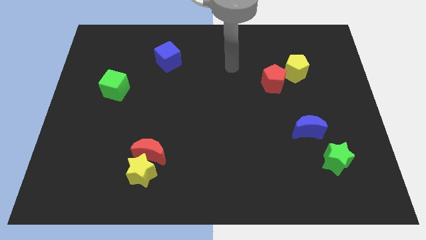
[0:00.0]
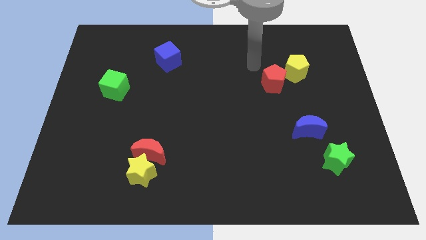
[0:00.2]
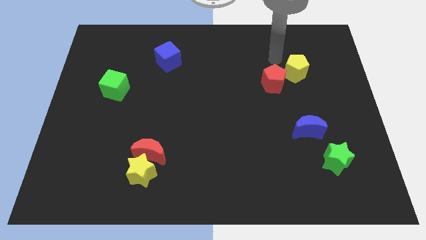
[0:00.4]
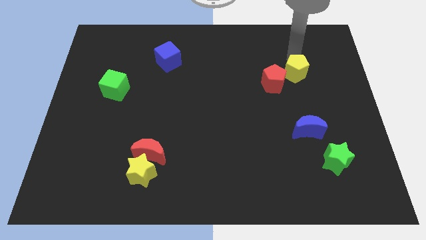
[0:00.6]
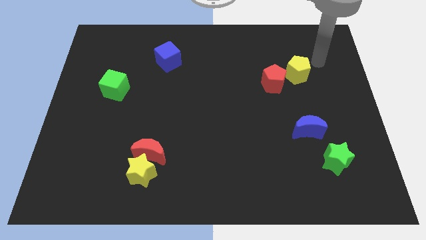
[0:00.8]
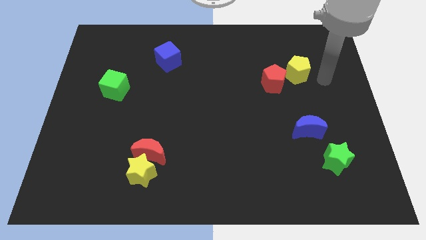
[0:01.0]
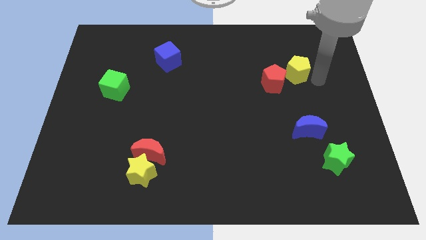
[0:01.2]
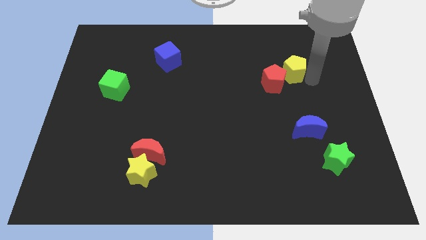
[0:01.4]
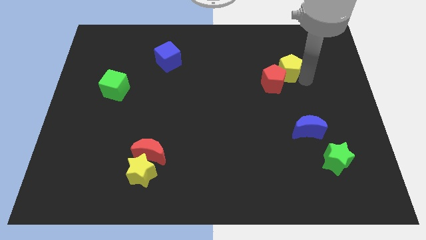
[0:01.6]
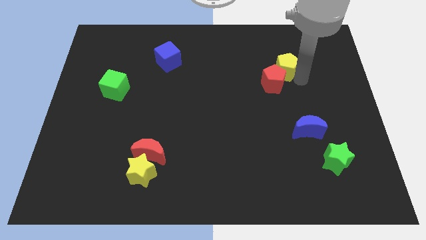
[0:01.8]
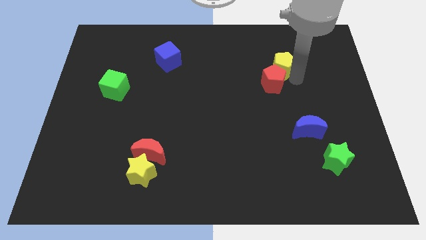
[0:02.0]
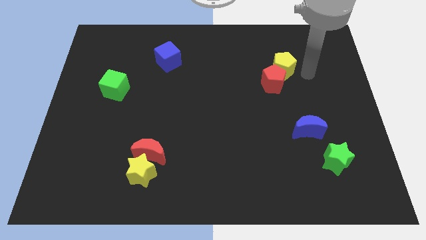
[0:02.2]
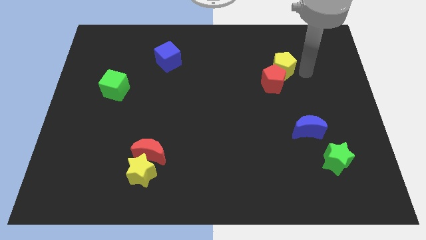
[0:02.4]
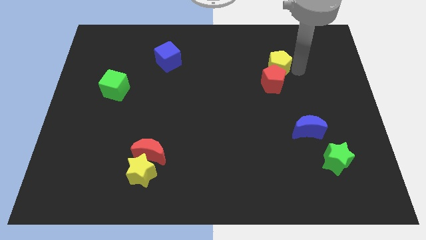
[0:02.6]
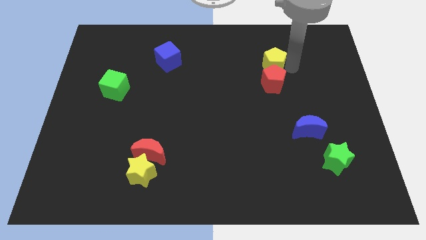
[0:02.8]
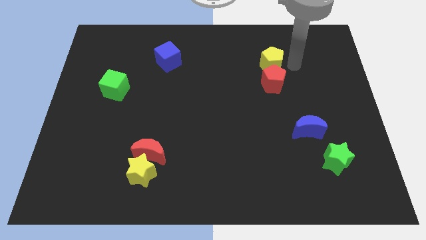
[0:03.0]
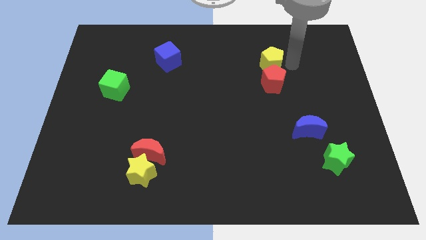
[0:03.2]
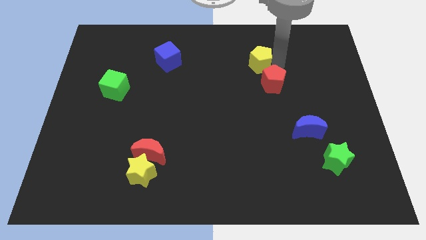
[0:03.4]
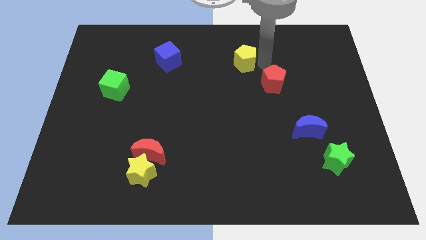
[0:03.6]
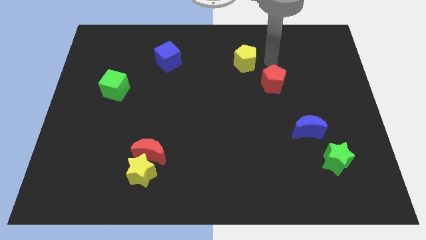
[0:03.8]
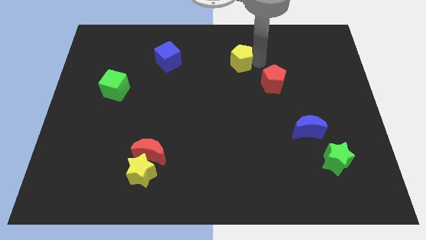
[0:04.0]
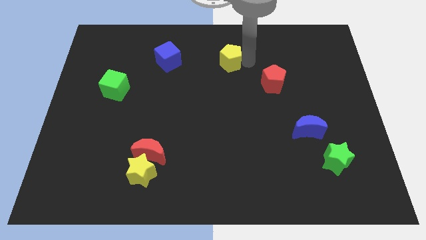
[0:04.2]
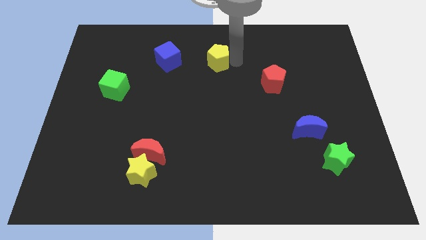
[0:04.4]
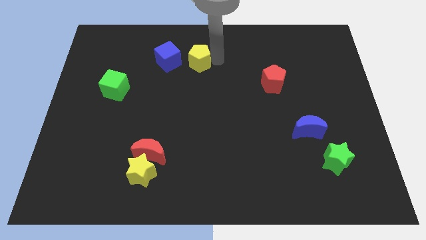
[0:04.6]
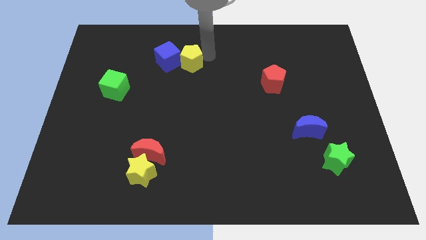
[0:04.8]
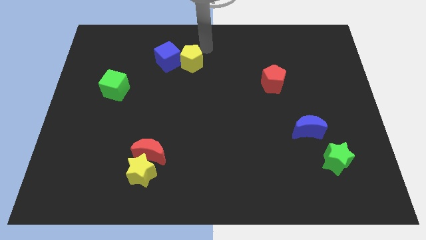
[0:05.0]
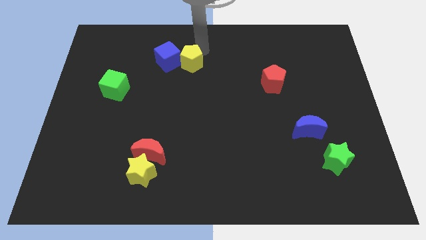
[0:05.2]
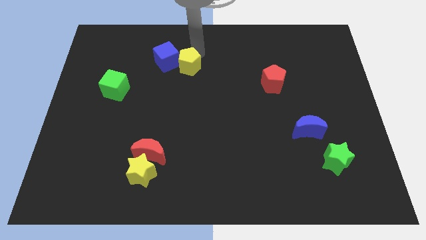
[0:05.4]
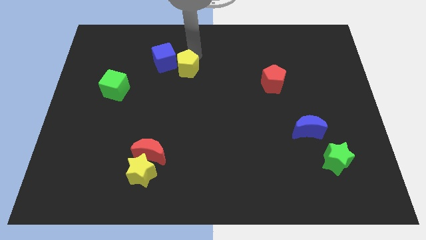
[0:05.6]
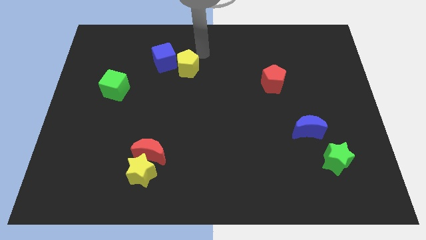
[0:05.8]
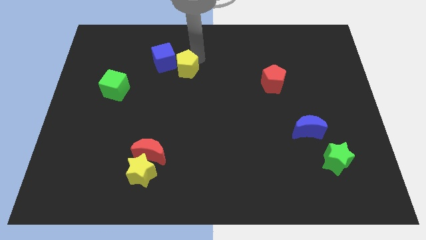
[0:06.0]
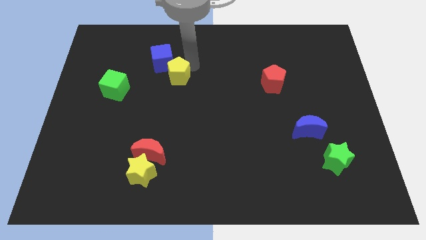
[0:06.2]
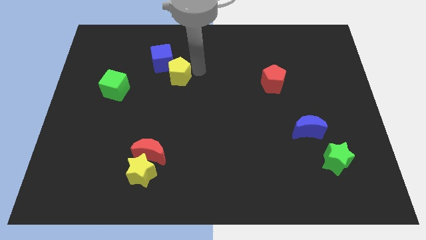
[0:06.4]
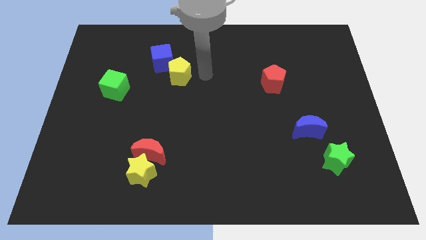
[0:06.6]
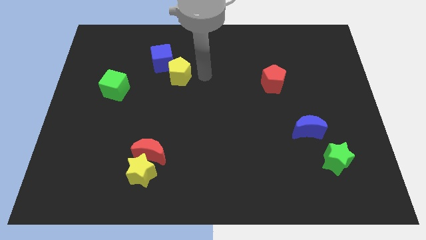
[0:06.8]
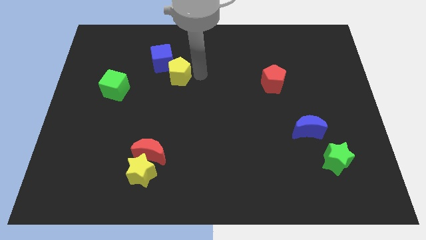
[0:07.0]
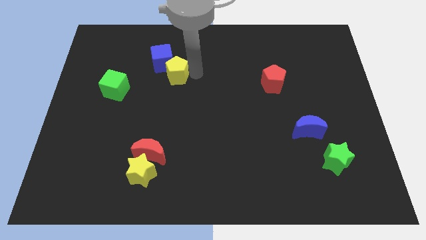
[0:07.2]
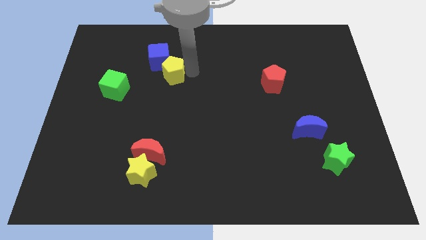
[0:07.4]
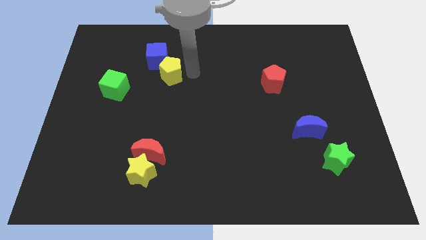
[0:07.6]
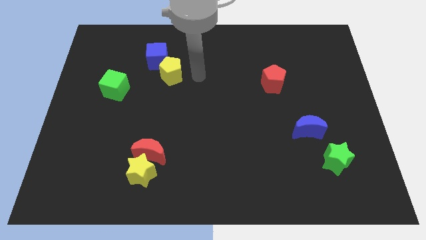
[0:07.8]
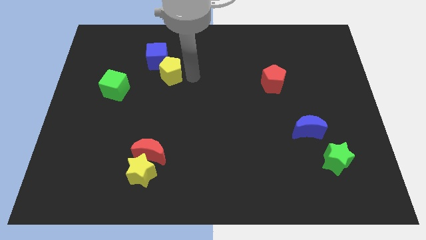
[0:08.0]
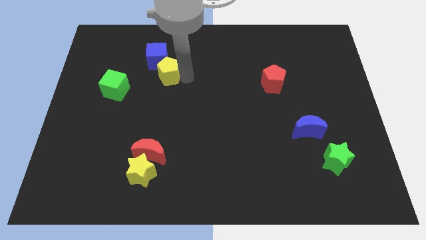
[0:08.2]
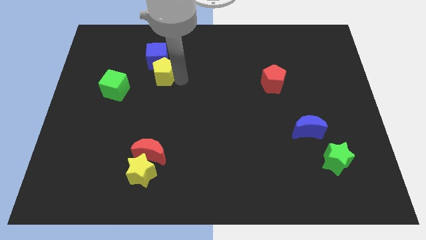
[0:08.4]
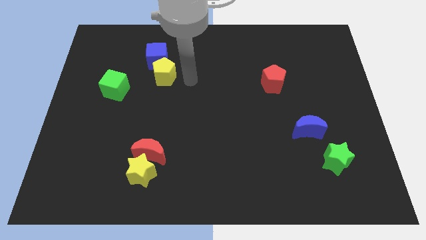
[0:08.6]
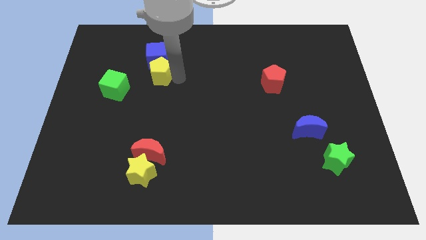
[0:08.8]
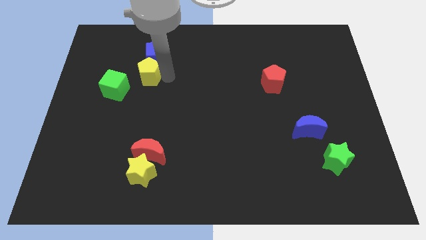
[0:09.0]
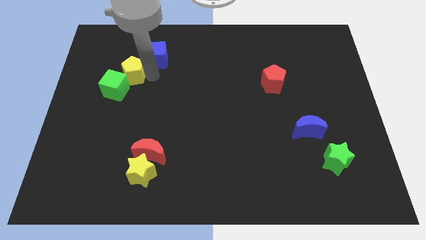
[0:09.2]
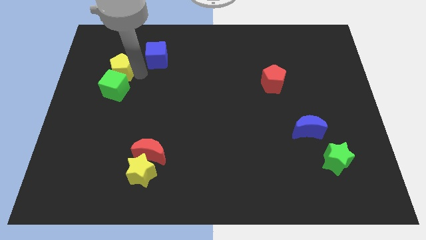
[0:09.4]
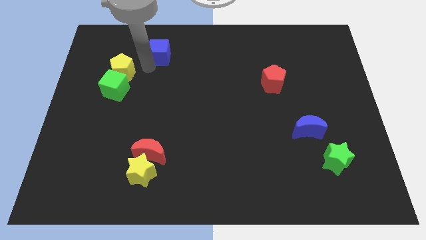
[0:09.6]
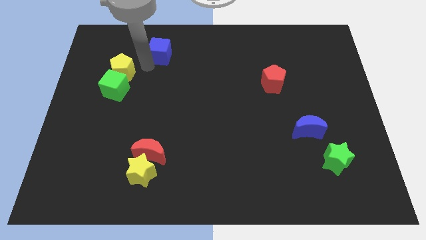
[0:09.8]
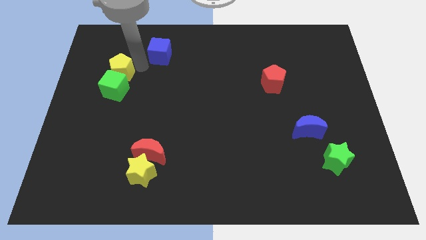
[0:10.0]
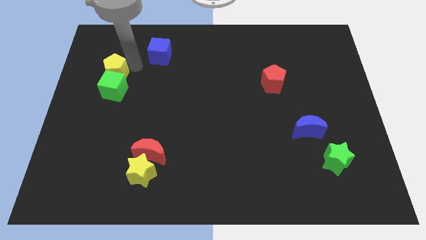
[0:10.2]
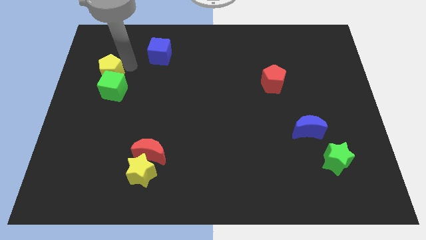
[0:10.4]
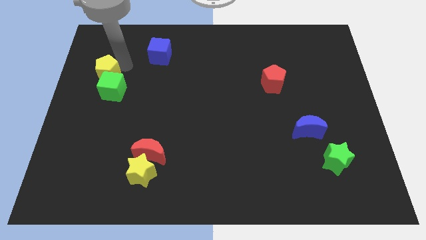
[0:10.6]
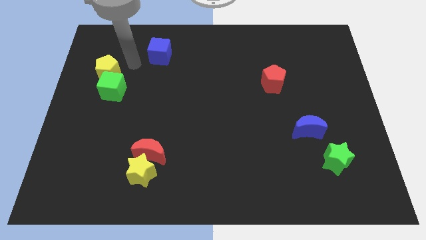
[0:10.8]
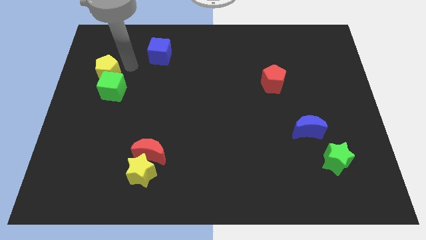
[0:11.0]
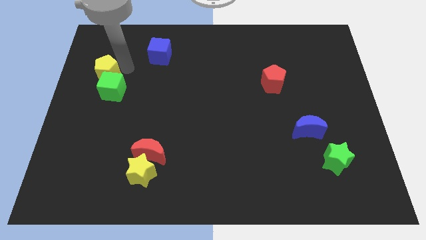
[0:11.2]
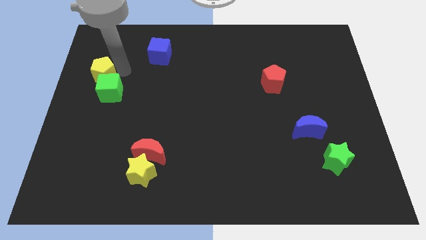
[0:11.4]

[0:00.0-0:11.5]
put the yellow pentagon to the center left

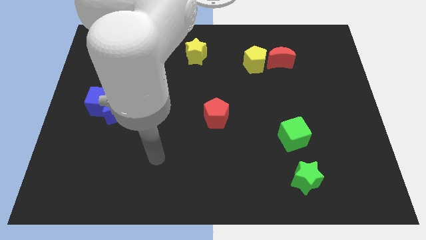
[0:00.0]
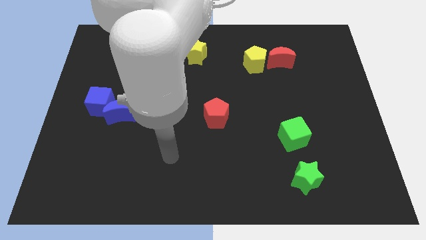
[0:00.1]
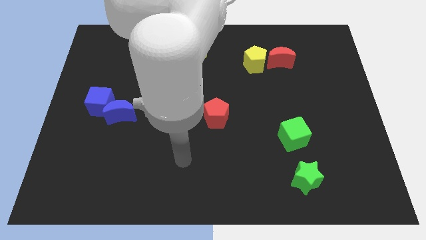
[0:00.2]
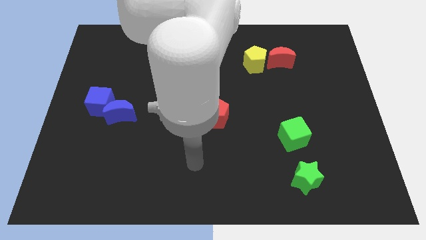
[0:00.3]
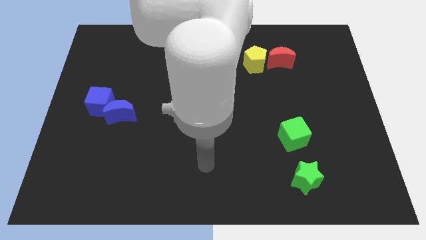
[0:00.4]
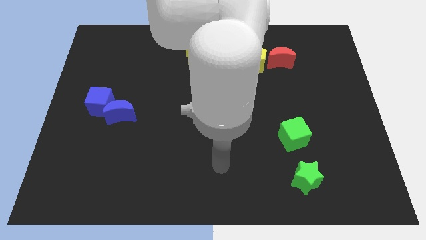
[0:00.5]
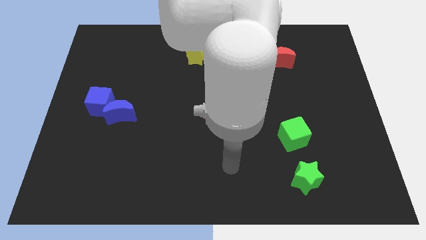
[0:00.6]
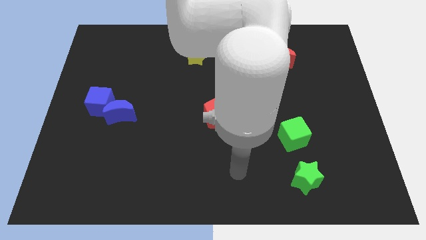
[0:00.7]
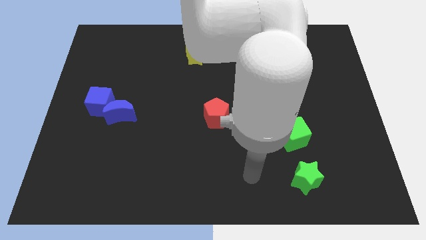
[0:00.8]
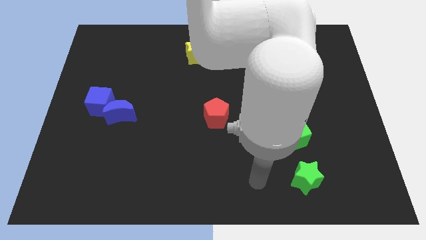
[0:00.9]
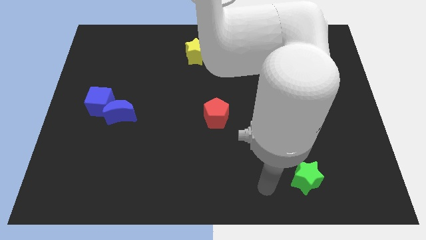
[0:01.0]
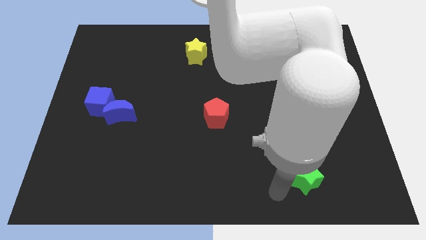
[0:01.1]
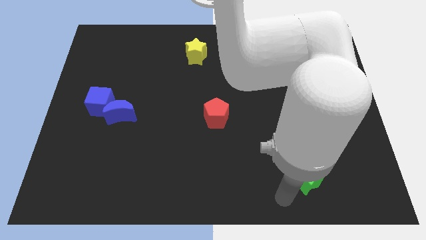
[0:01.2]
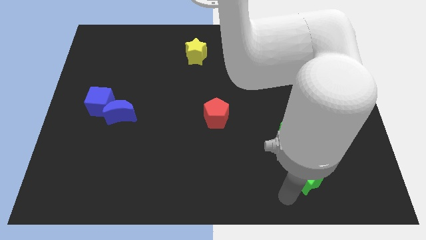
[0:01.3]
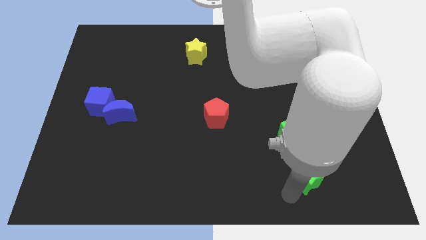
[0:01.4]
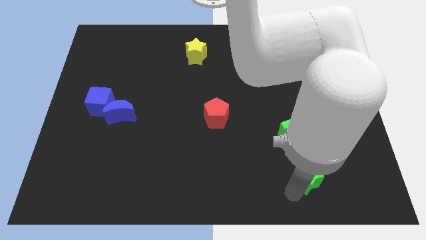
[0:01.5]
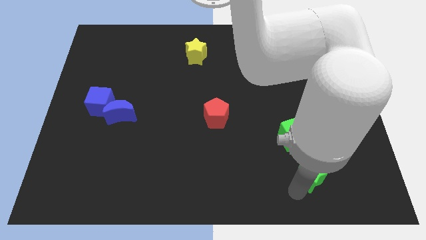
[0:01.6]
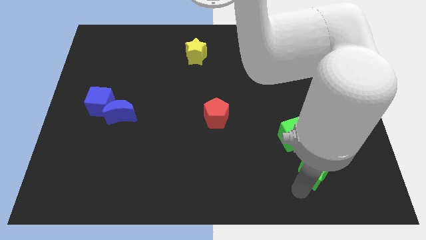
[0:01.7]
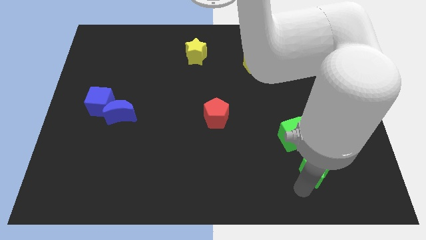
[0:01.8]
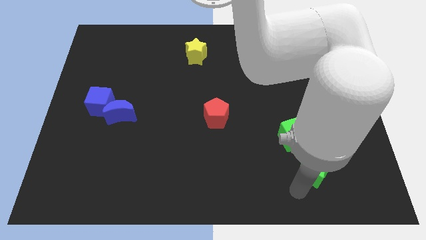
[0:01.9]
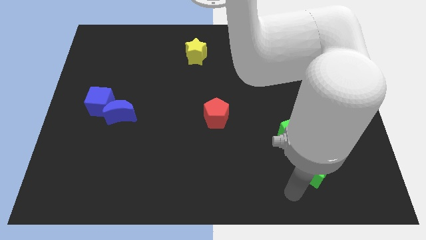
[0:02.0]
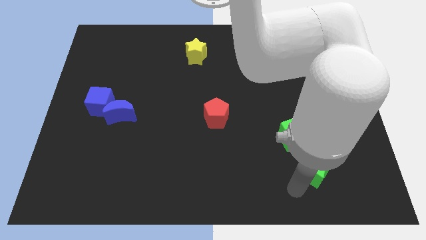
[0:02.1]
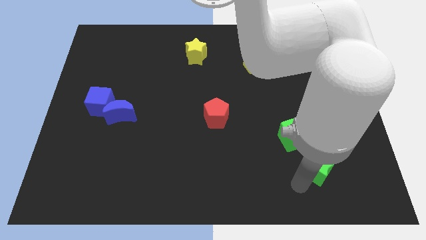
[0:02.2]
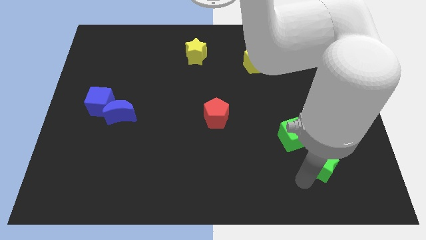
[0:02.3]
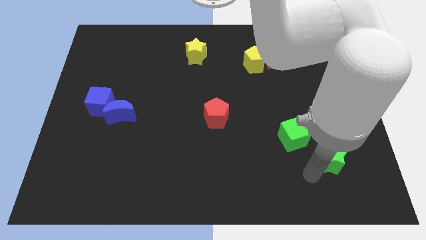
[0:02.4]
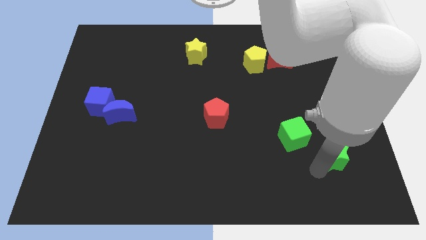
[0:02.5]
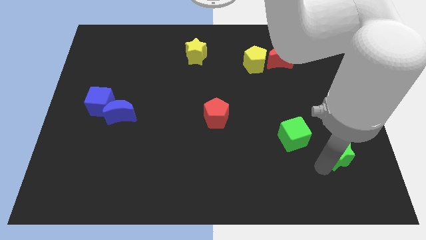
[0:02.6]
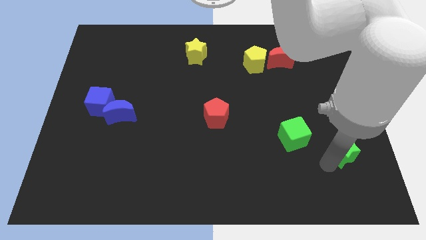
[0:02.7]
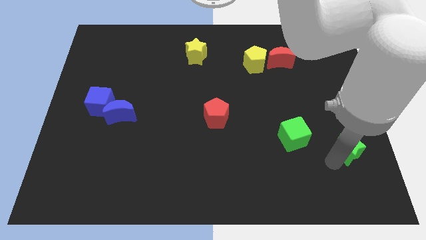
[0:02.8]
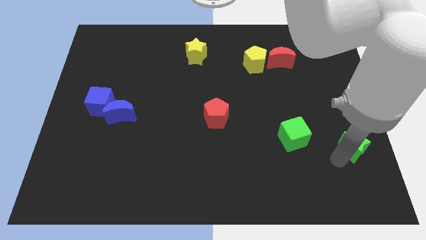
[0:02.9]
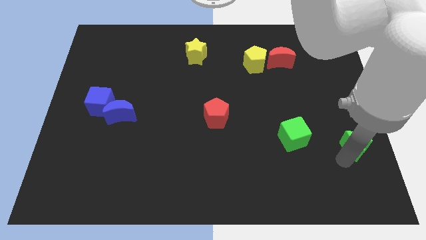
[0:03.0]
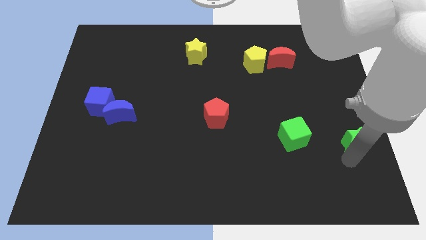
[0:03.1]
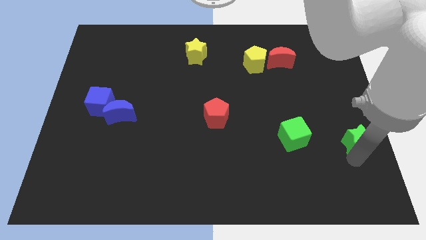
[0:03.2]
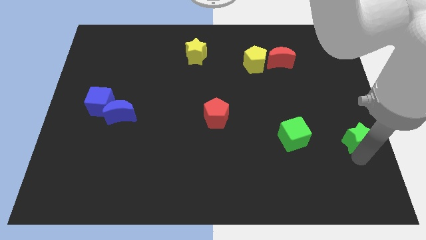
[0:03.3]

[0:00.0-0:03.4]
push the green star to the center right
